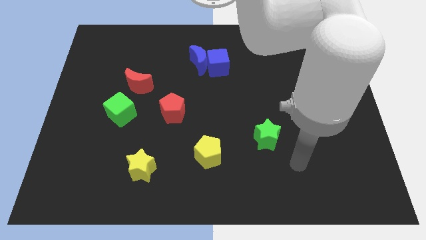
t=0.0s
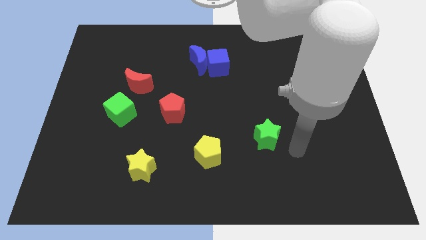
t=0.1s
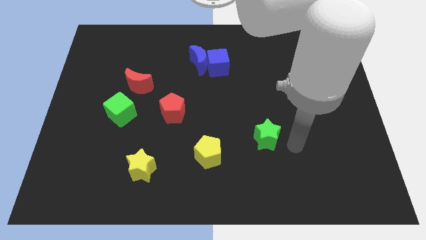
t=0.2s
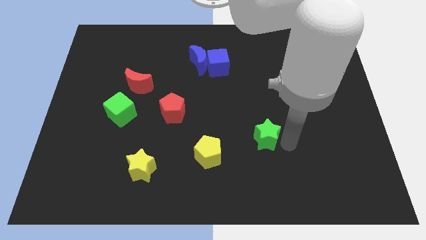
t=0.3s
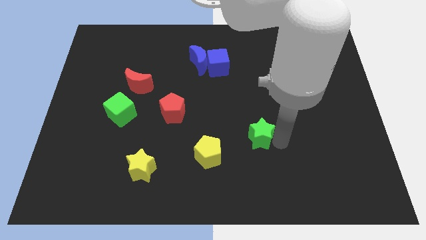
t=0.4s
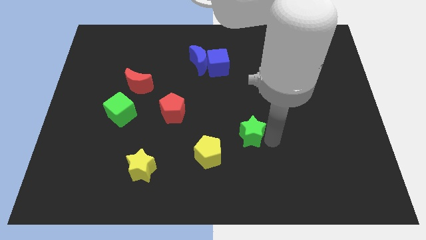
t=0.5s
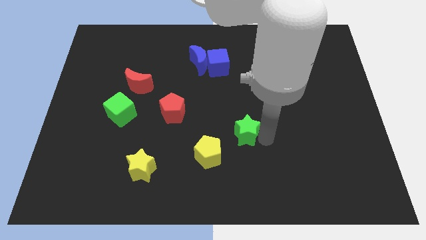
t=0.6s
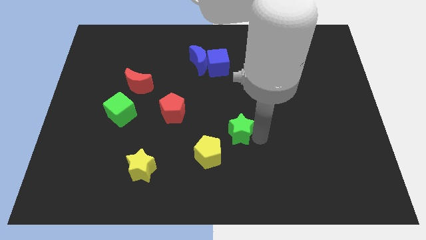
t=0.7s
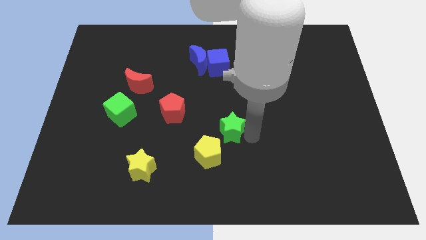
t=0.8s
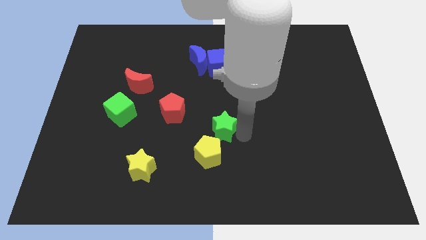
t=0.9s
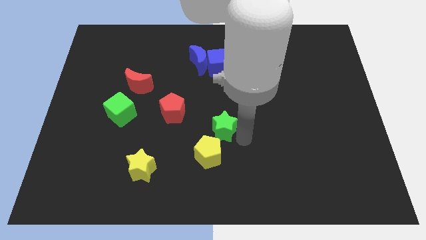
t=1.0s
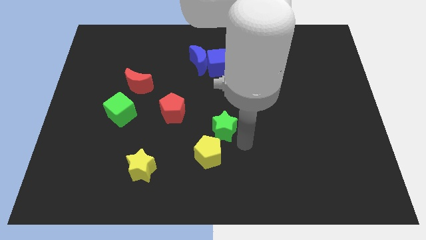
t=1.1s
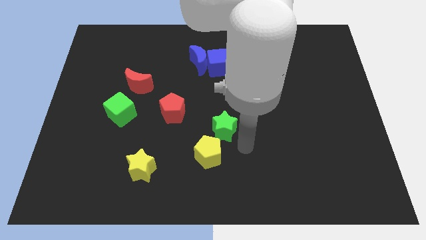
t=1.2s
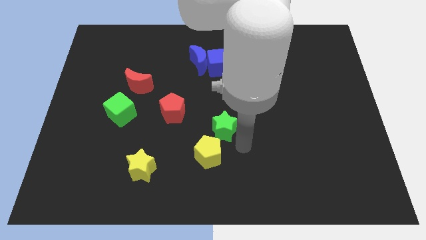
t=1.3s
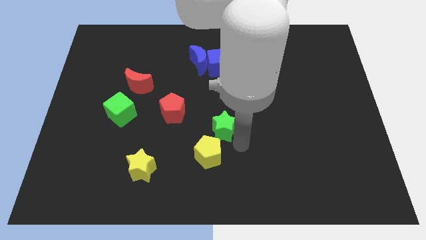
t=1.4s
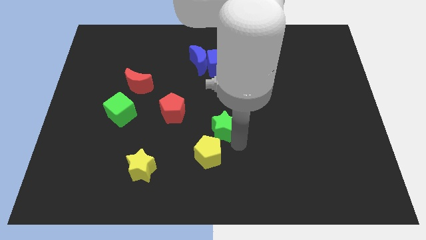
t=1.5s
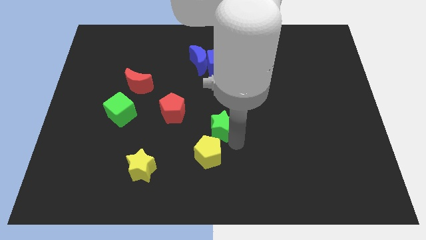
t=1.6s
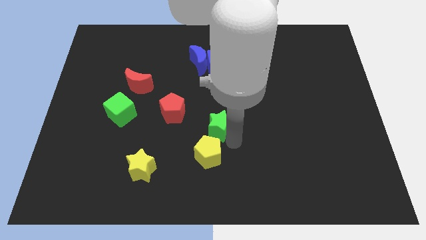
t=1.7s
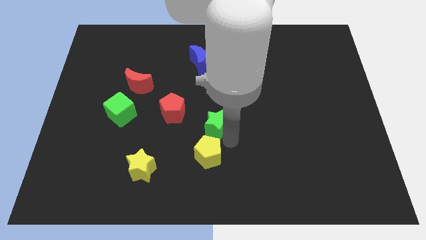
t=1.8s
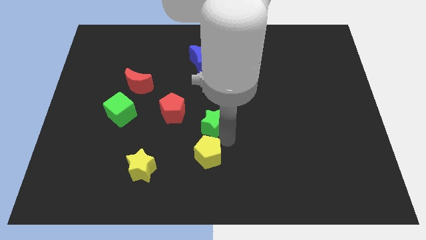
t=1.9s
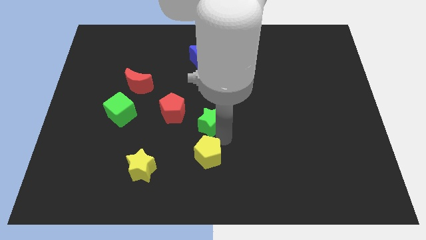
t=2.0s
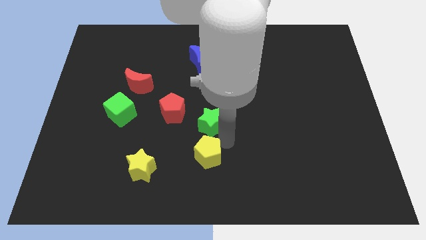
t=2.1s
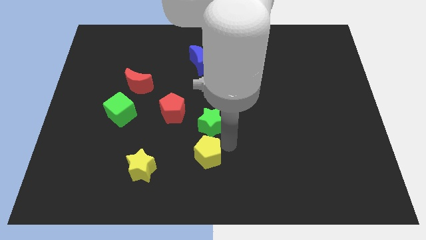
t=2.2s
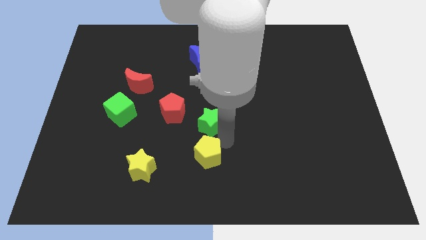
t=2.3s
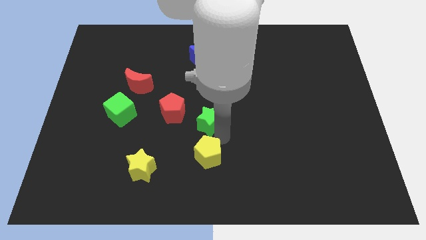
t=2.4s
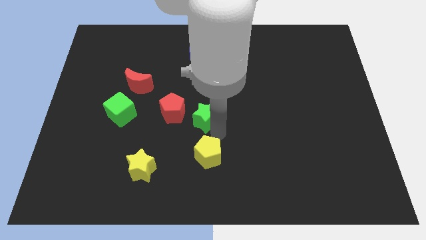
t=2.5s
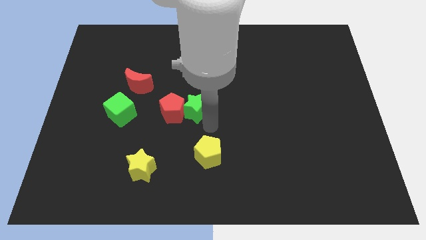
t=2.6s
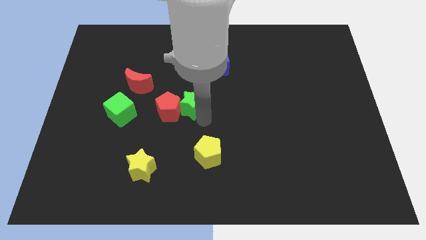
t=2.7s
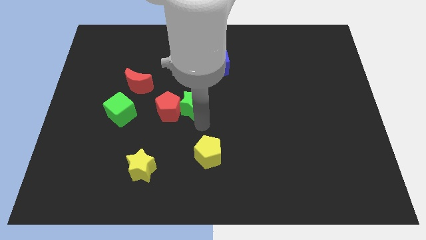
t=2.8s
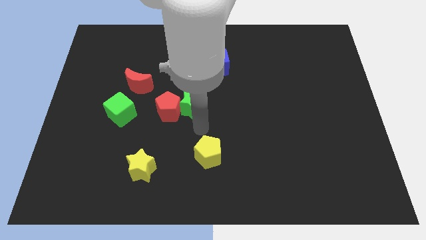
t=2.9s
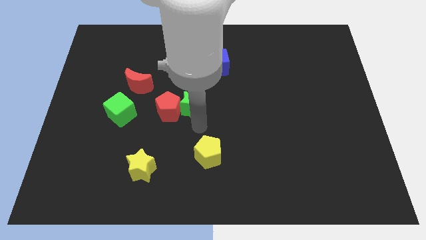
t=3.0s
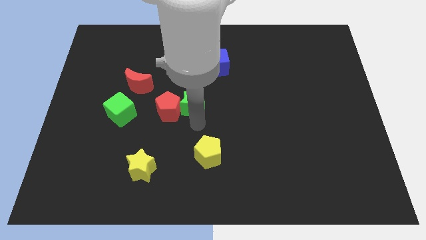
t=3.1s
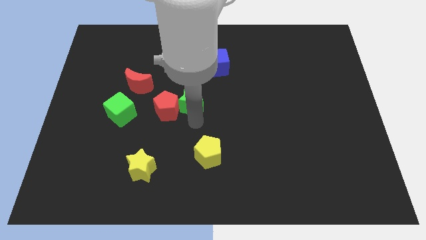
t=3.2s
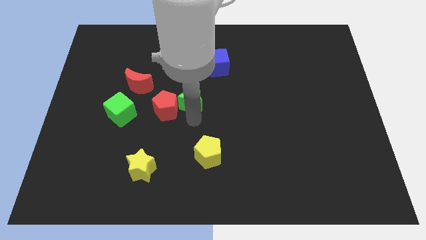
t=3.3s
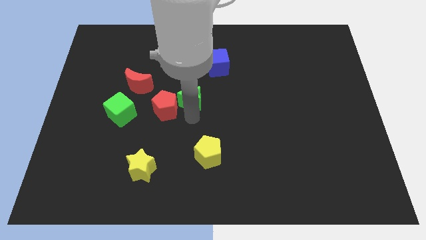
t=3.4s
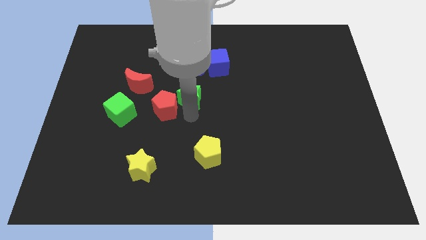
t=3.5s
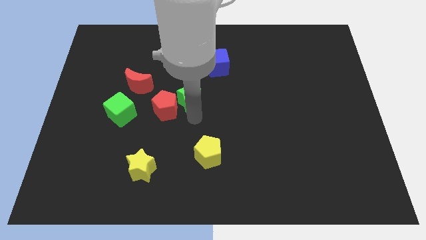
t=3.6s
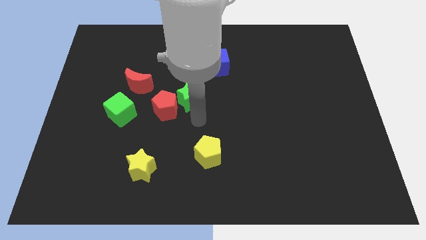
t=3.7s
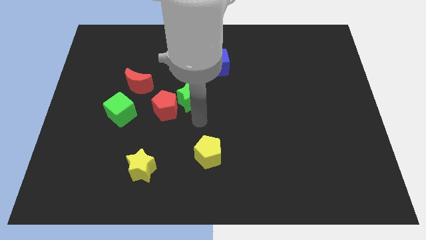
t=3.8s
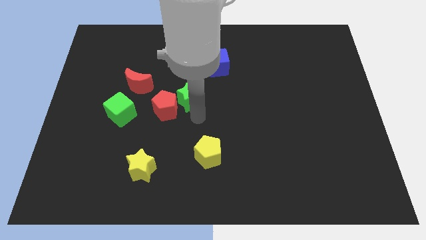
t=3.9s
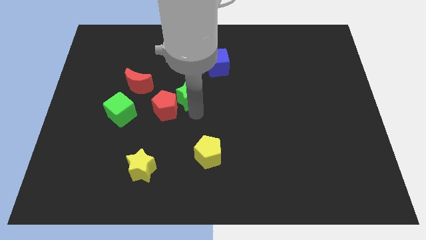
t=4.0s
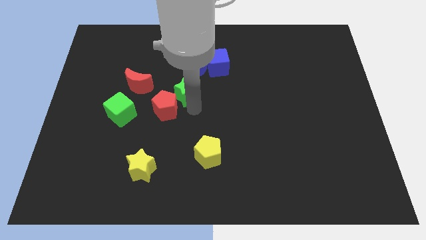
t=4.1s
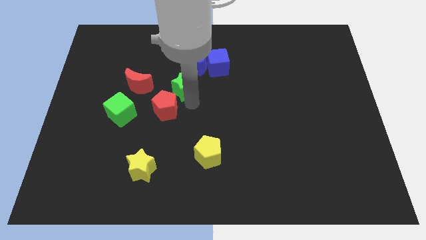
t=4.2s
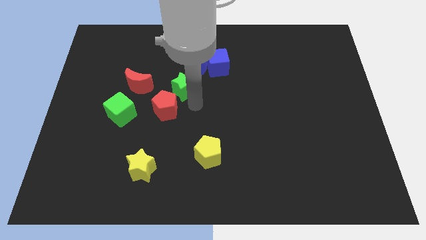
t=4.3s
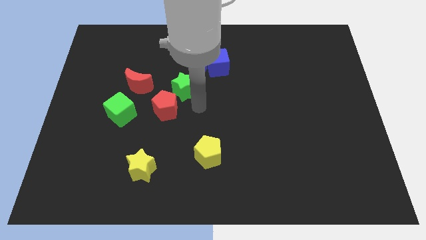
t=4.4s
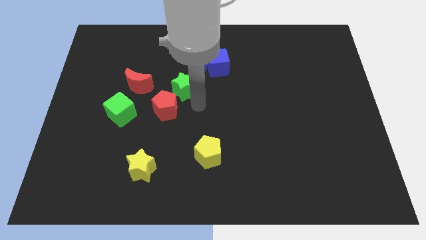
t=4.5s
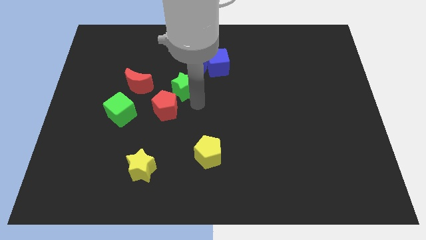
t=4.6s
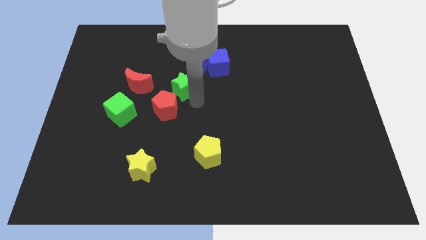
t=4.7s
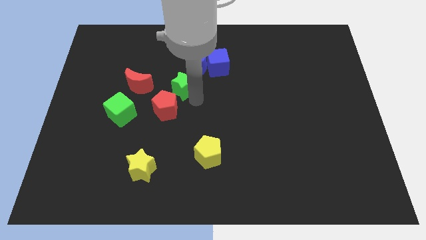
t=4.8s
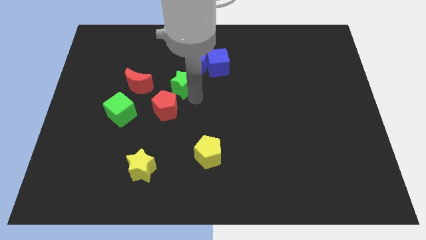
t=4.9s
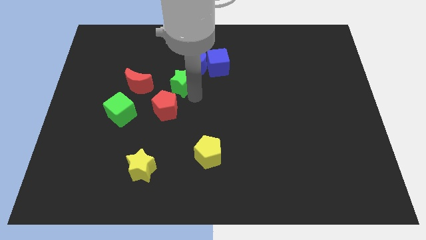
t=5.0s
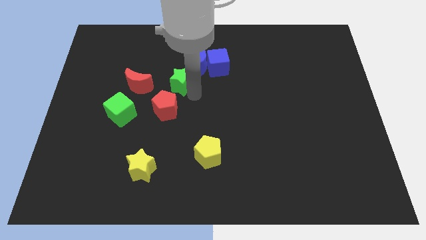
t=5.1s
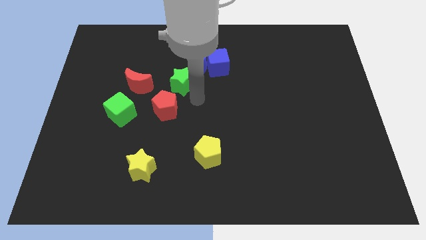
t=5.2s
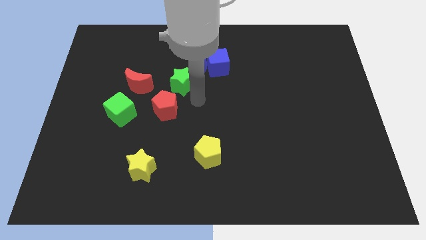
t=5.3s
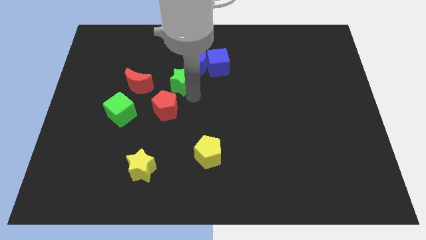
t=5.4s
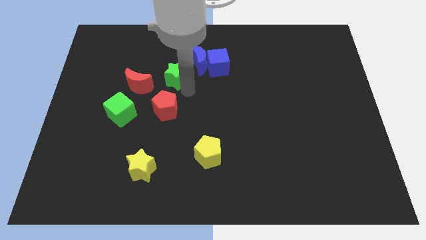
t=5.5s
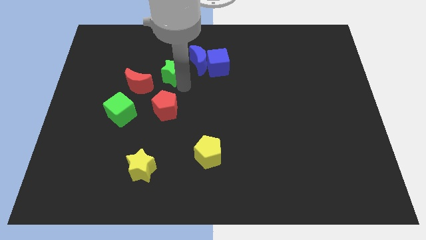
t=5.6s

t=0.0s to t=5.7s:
move the green star left of the blue moon

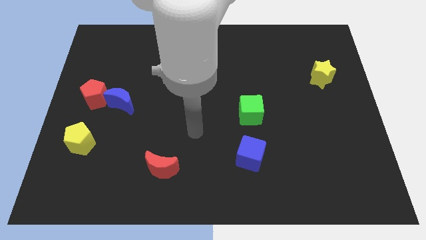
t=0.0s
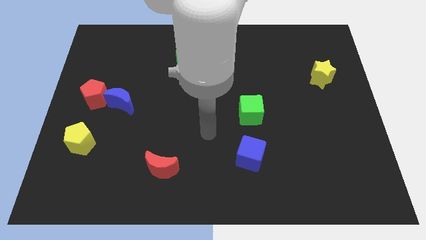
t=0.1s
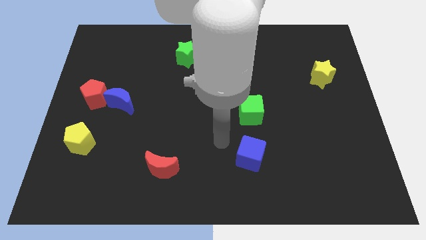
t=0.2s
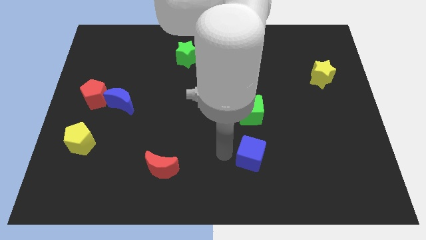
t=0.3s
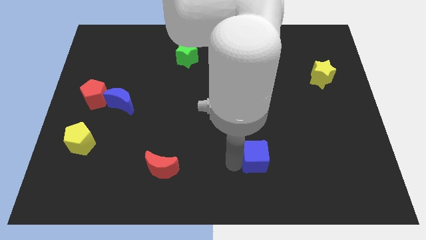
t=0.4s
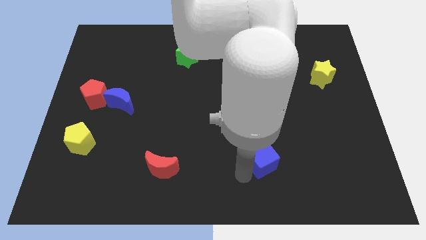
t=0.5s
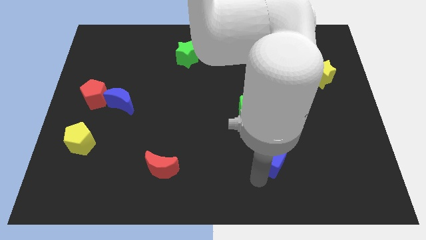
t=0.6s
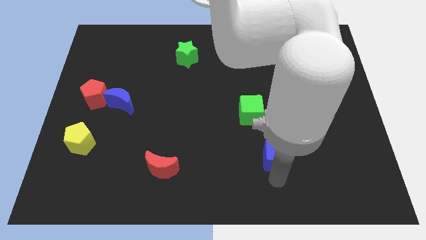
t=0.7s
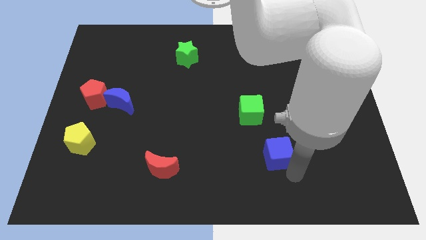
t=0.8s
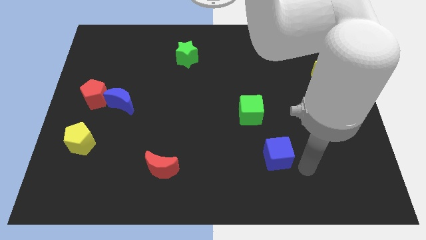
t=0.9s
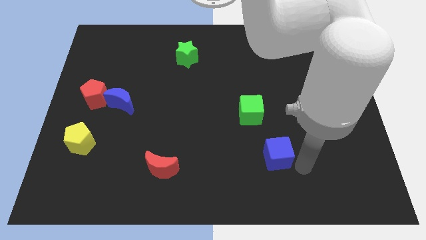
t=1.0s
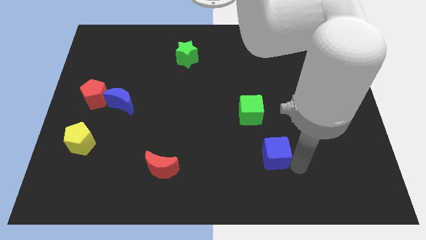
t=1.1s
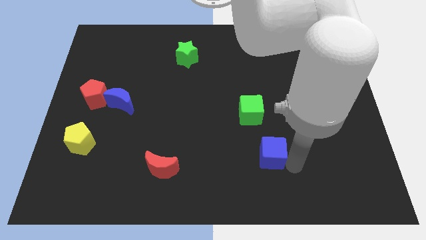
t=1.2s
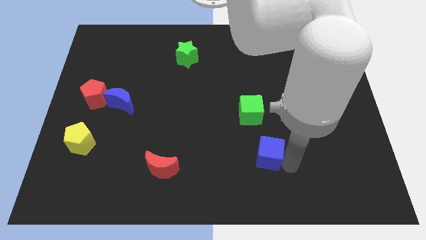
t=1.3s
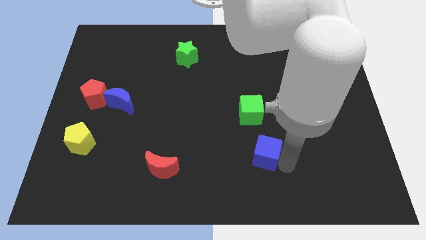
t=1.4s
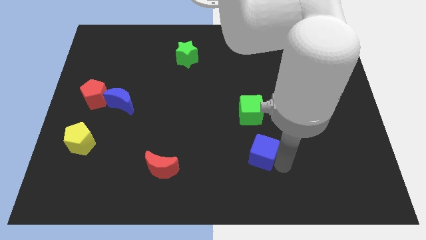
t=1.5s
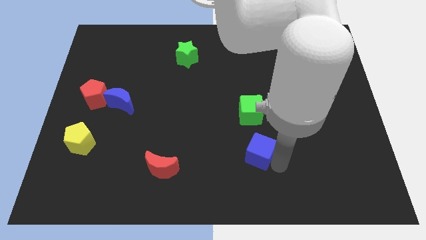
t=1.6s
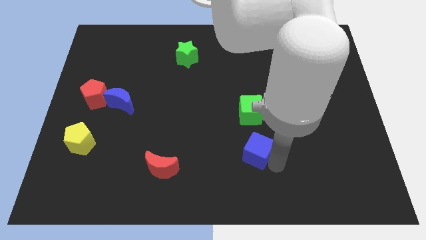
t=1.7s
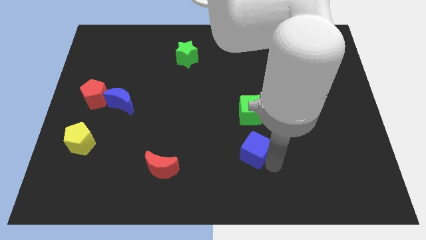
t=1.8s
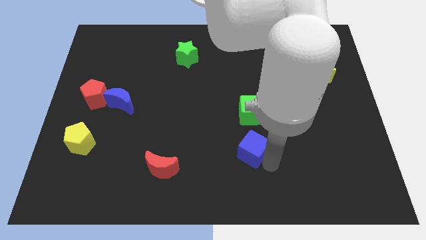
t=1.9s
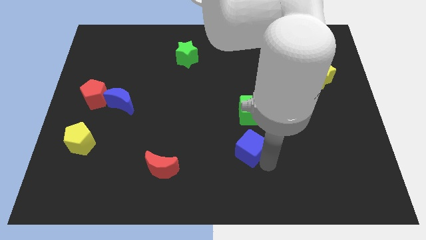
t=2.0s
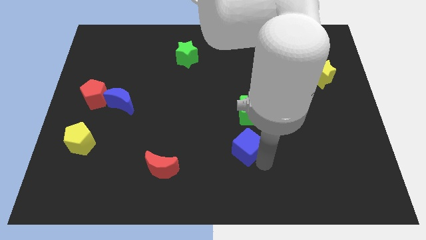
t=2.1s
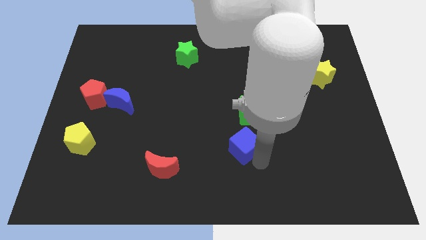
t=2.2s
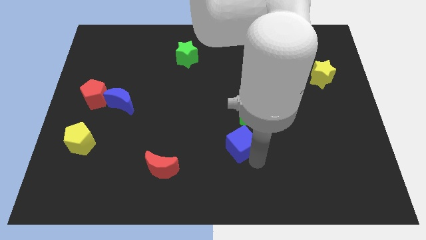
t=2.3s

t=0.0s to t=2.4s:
slide the blue cube to the bottom left side of the green cube
